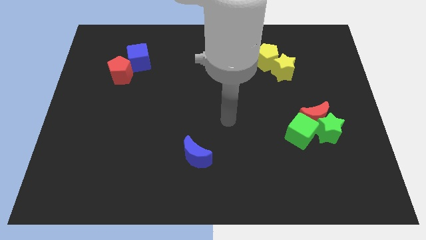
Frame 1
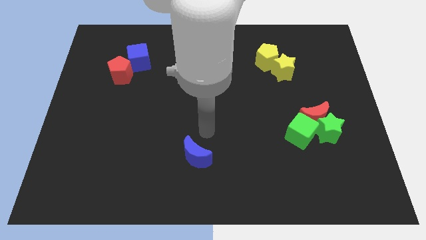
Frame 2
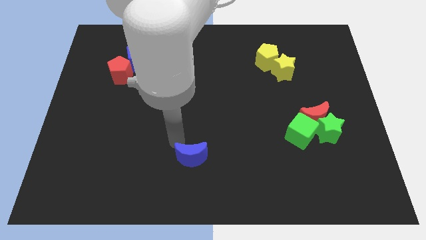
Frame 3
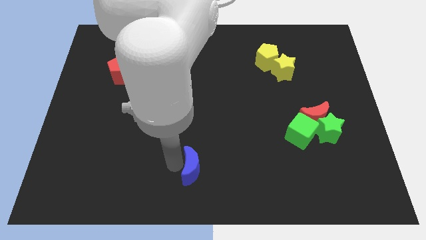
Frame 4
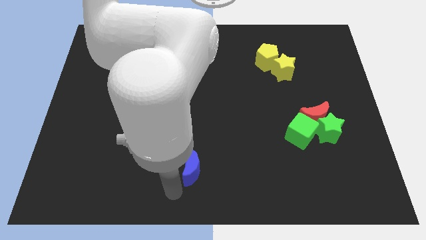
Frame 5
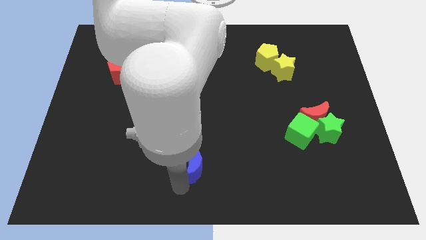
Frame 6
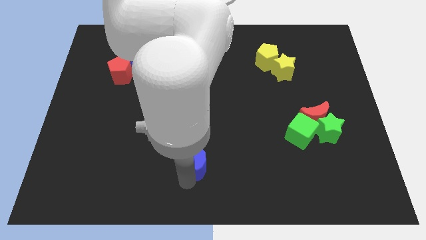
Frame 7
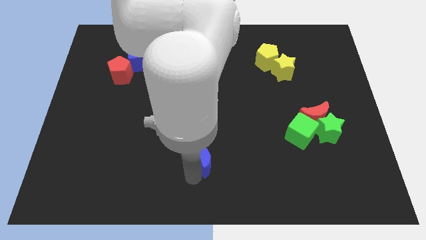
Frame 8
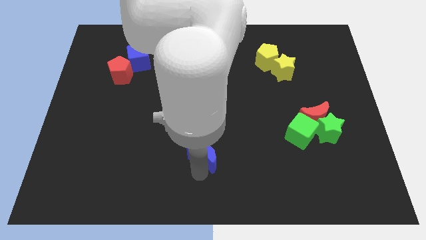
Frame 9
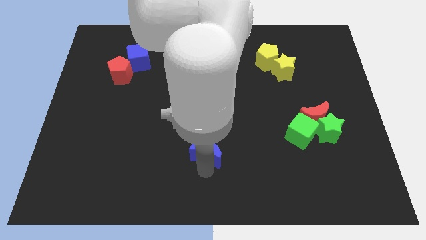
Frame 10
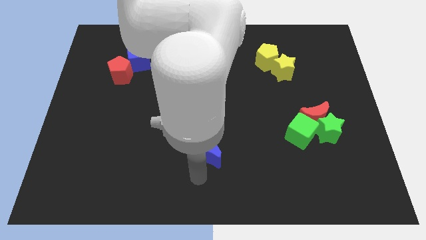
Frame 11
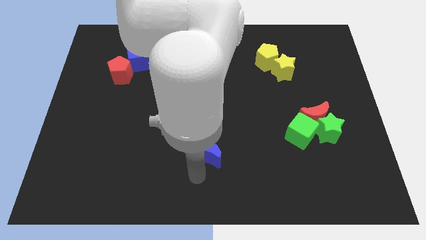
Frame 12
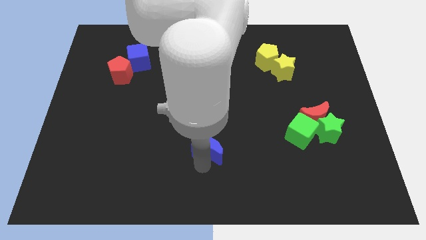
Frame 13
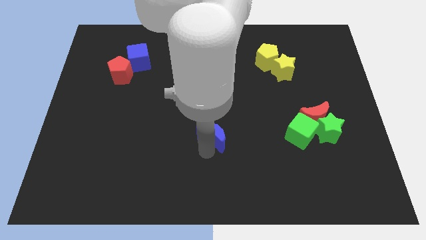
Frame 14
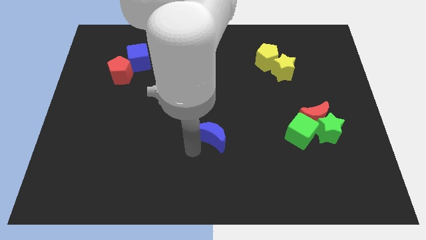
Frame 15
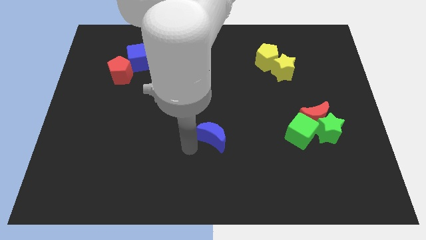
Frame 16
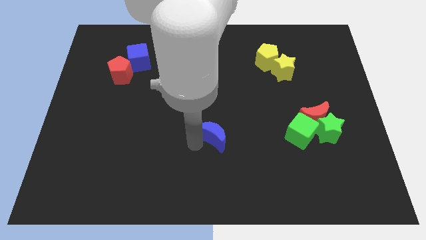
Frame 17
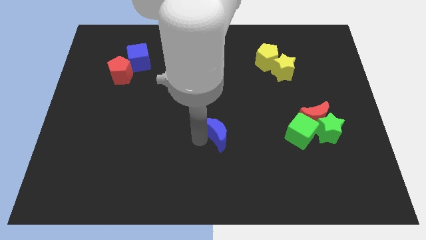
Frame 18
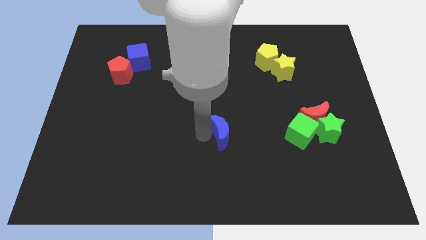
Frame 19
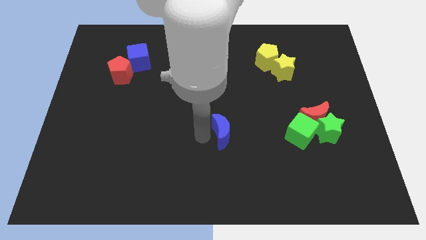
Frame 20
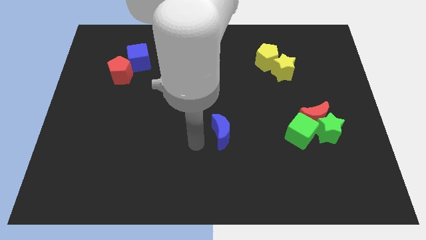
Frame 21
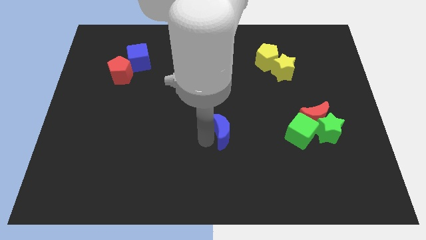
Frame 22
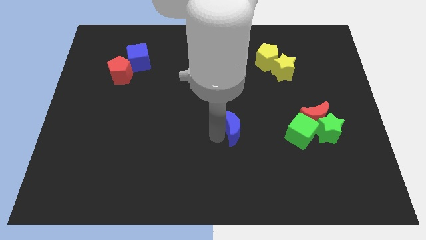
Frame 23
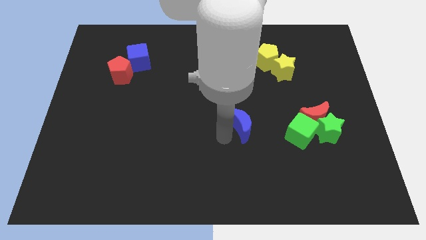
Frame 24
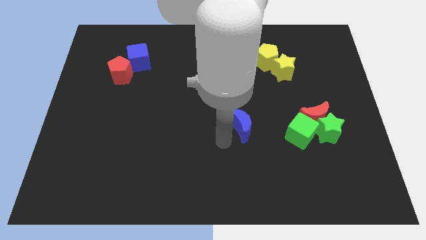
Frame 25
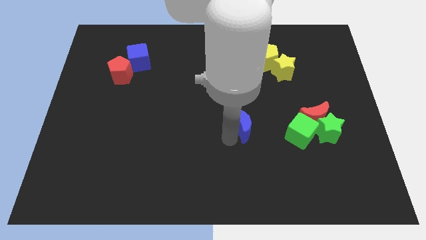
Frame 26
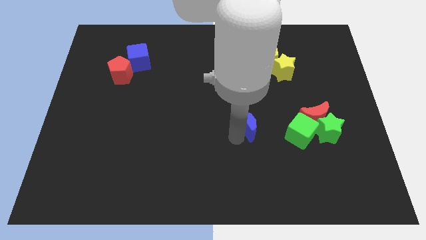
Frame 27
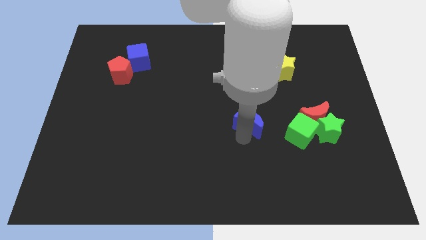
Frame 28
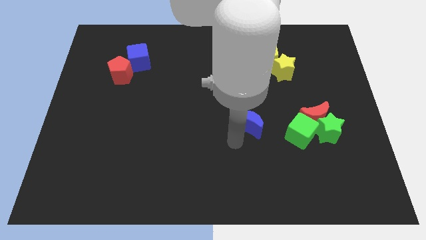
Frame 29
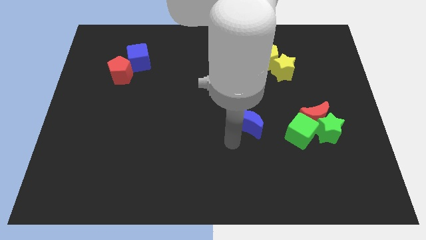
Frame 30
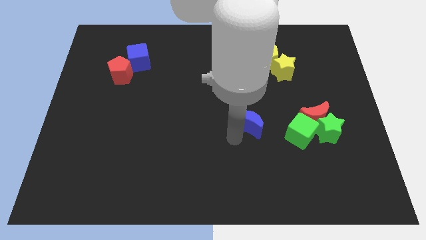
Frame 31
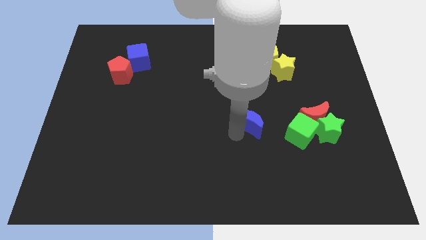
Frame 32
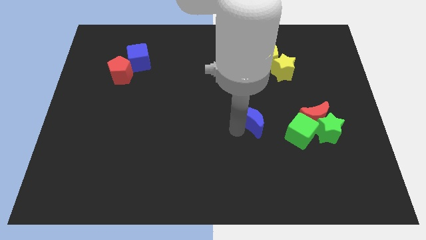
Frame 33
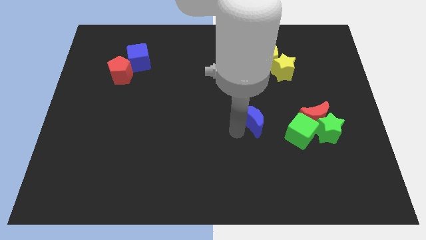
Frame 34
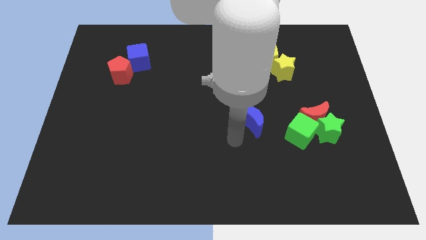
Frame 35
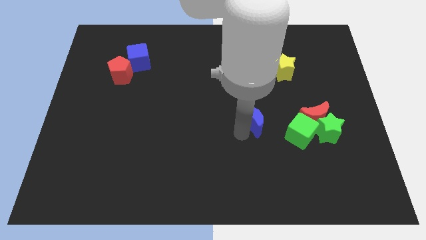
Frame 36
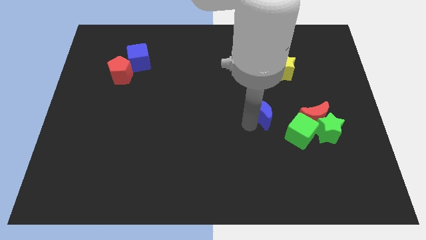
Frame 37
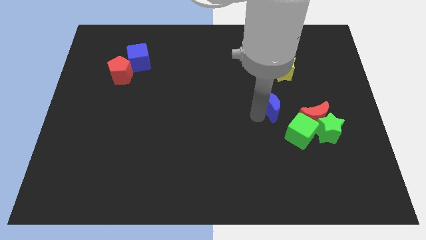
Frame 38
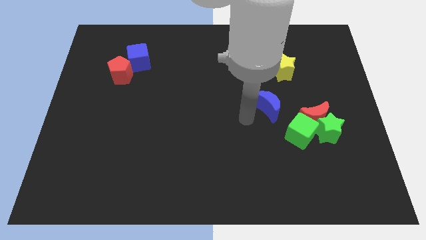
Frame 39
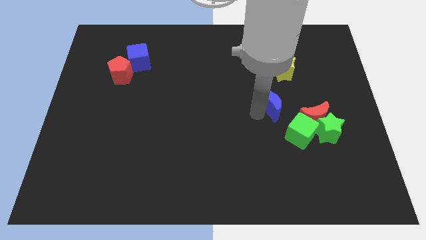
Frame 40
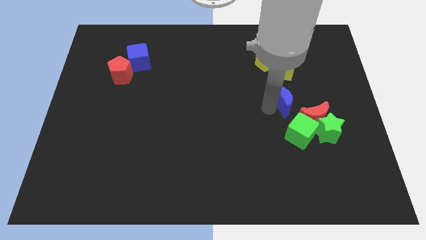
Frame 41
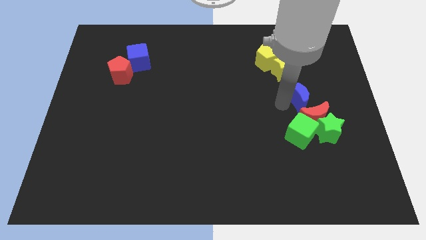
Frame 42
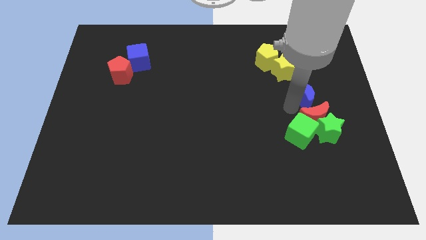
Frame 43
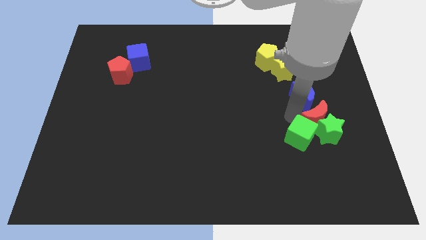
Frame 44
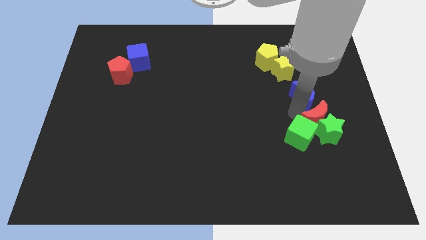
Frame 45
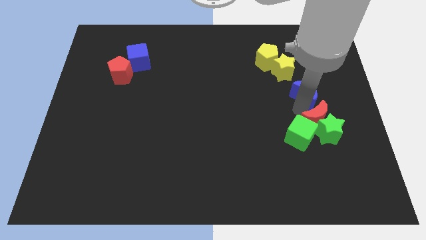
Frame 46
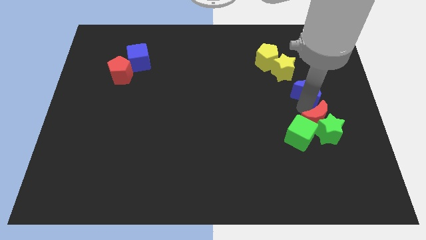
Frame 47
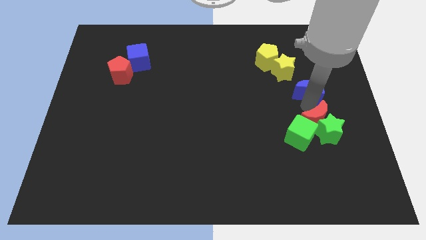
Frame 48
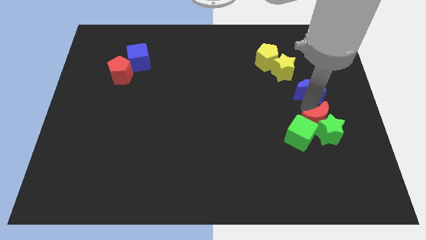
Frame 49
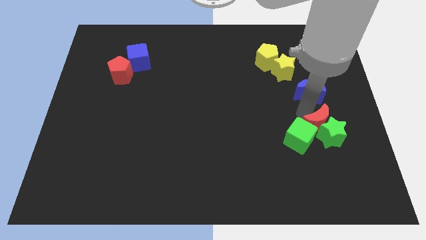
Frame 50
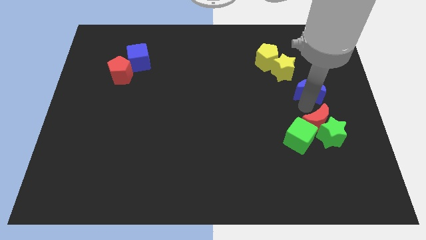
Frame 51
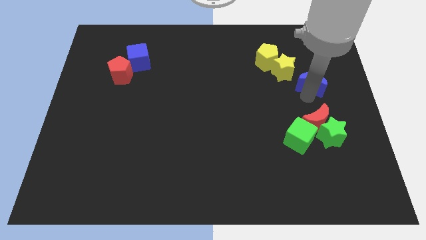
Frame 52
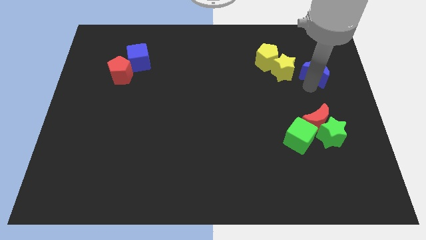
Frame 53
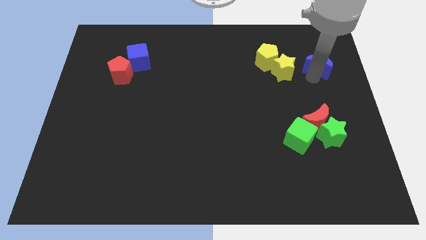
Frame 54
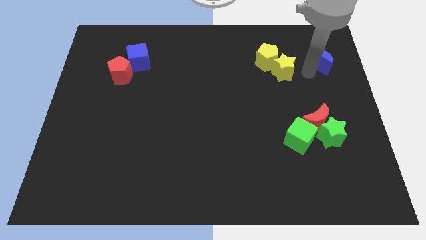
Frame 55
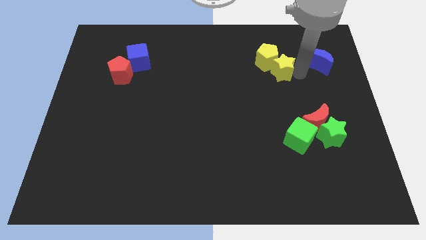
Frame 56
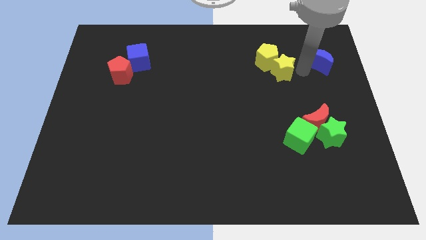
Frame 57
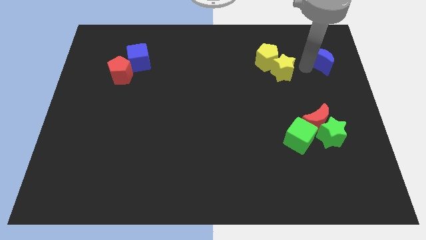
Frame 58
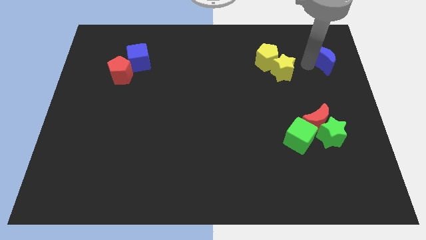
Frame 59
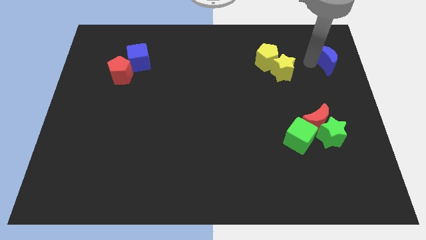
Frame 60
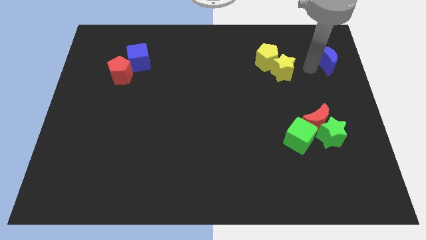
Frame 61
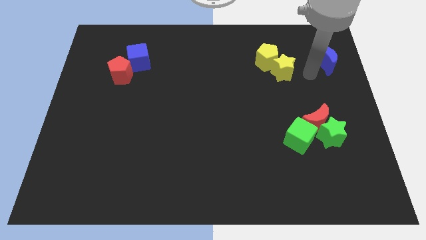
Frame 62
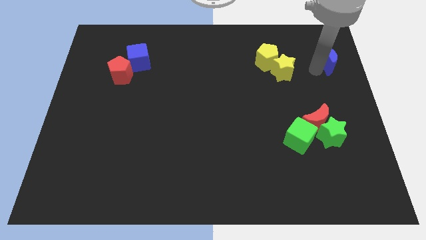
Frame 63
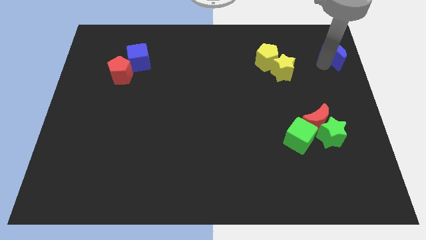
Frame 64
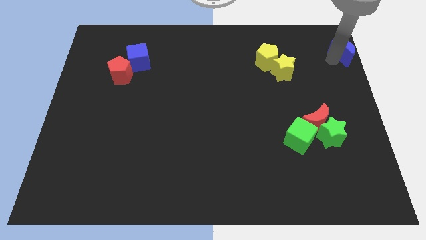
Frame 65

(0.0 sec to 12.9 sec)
put the blue moon to the top right
